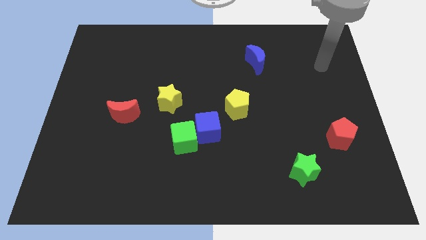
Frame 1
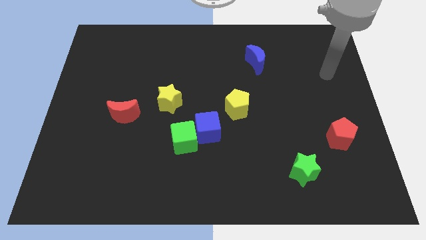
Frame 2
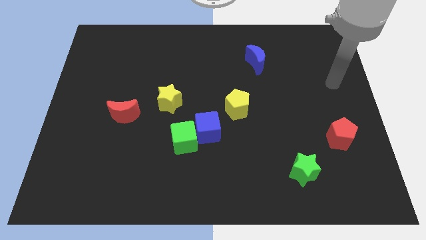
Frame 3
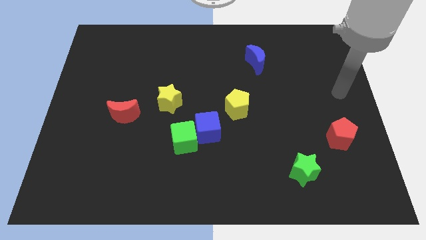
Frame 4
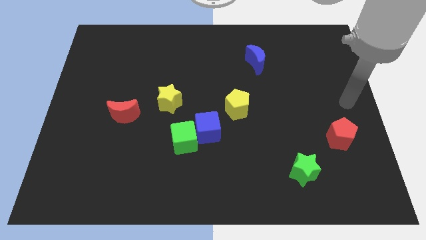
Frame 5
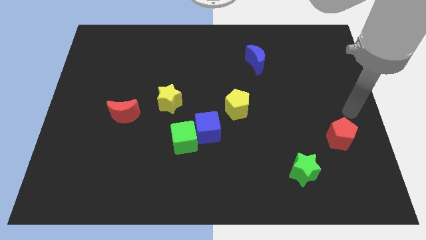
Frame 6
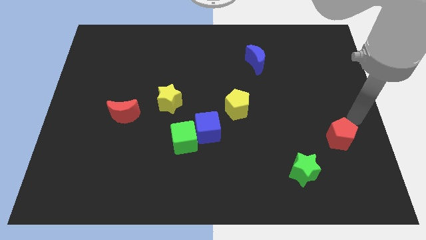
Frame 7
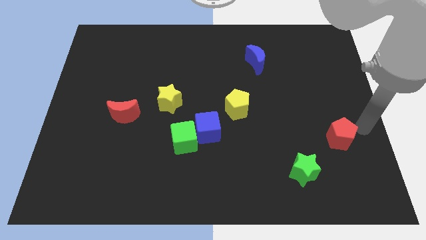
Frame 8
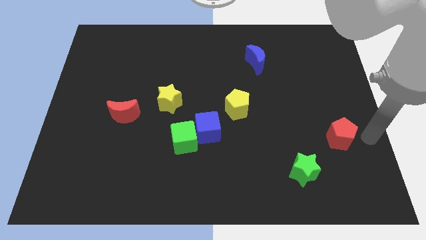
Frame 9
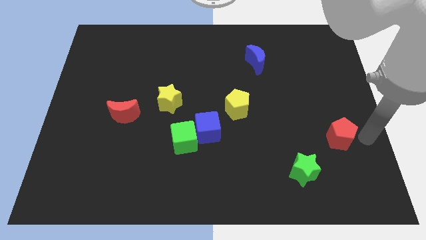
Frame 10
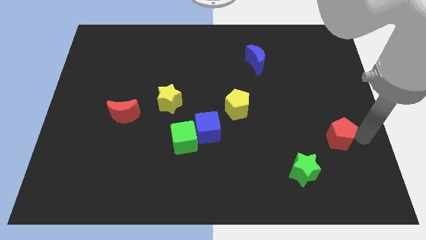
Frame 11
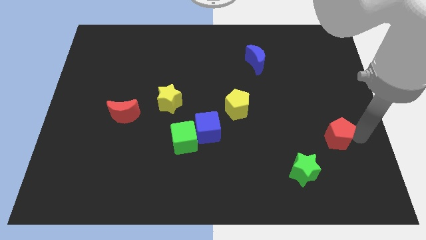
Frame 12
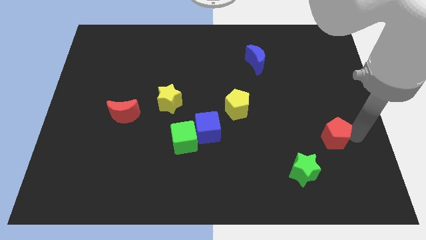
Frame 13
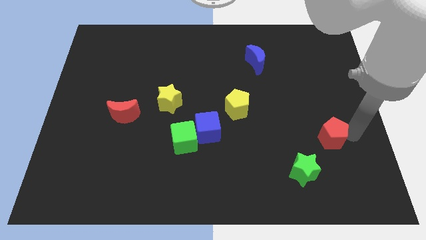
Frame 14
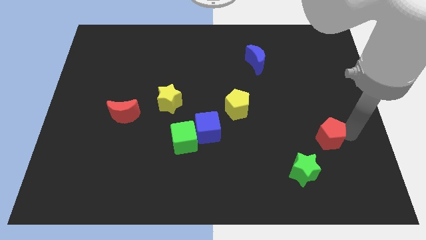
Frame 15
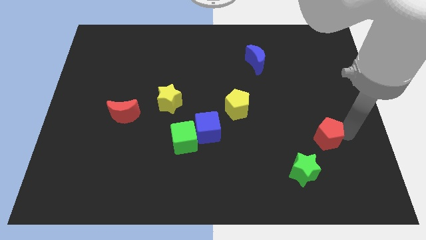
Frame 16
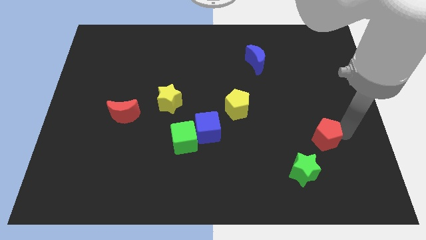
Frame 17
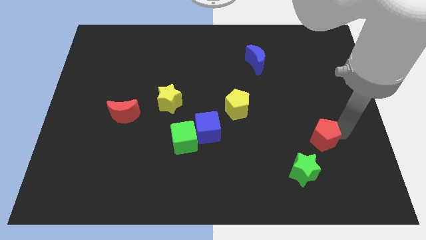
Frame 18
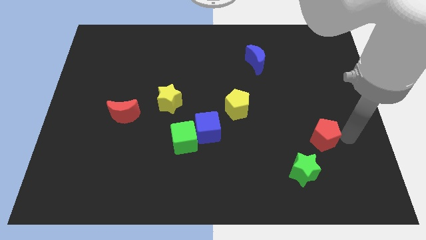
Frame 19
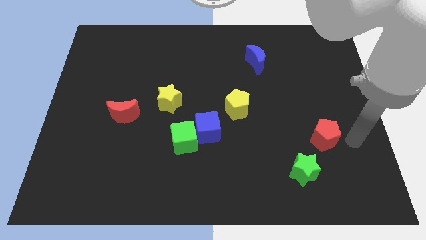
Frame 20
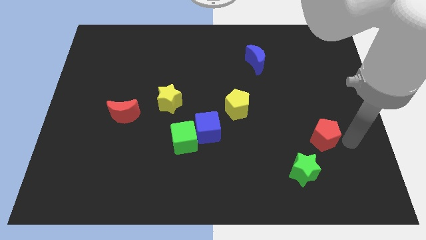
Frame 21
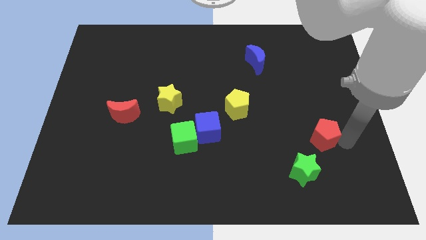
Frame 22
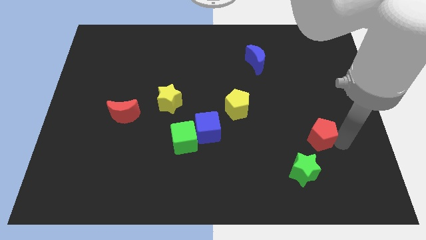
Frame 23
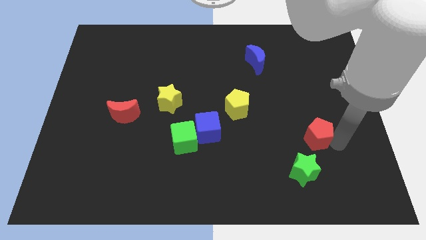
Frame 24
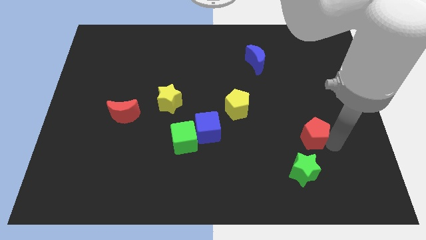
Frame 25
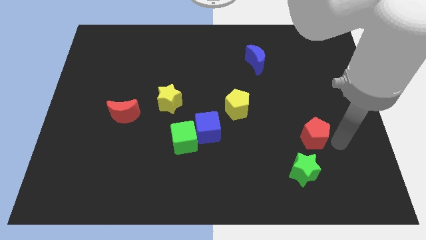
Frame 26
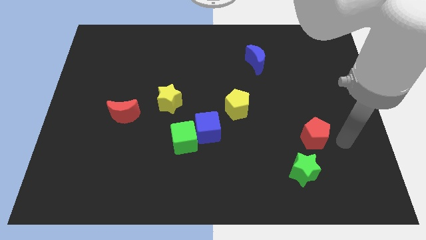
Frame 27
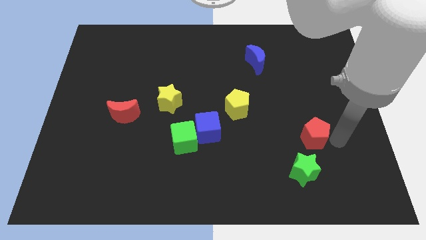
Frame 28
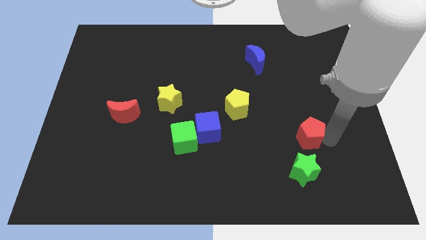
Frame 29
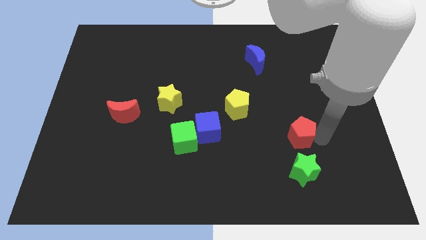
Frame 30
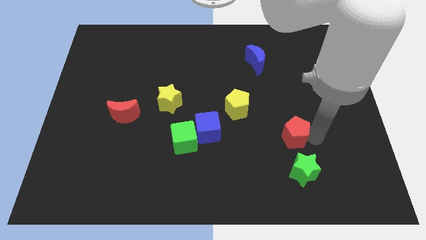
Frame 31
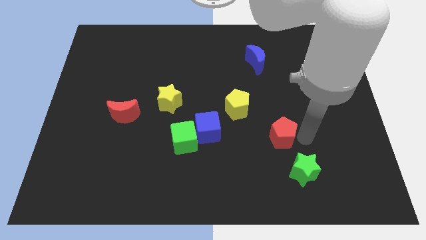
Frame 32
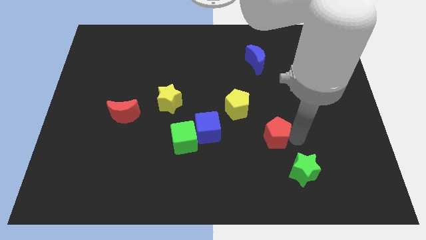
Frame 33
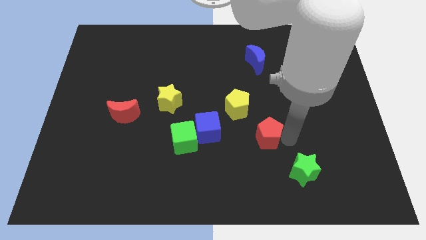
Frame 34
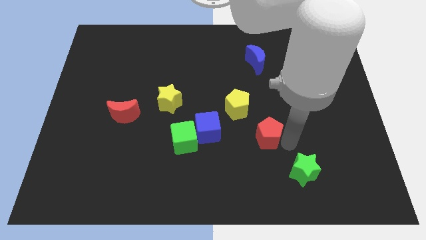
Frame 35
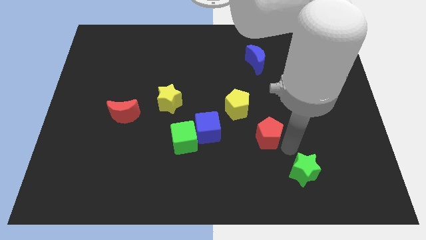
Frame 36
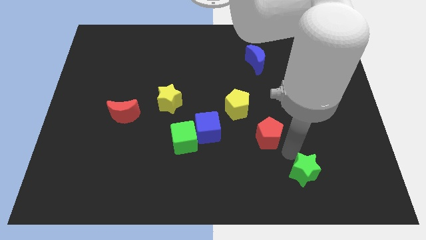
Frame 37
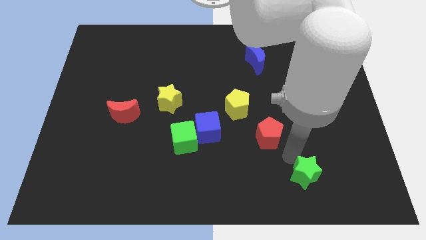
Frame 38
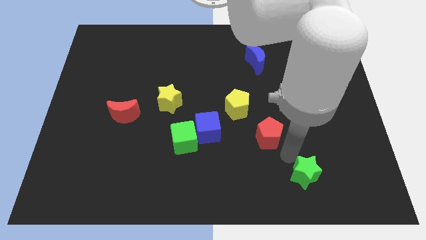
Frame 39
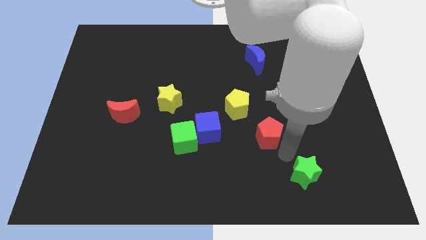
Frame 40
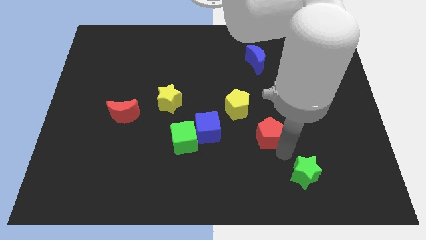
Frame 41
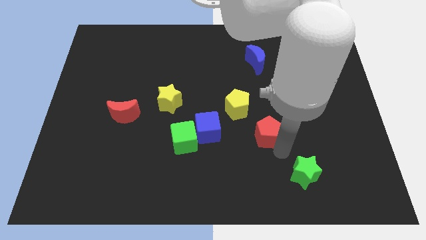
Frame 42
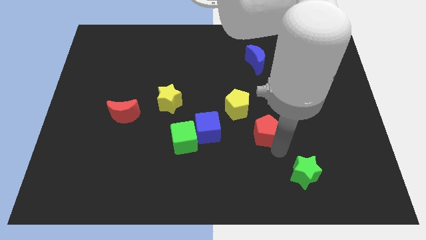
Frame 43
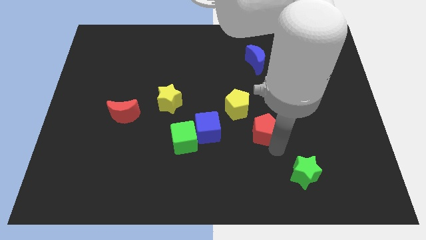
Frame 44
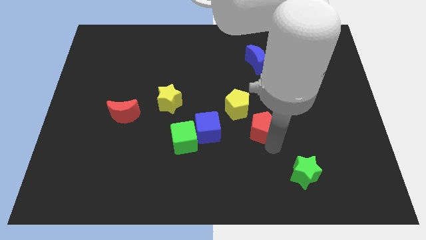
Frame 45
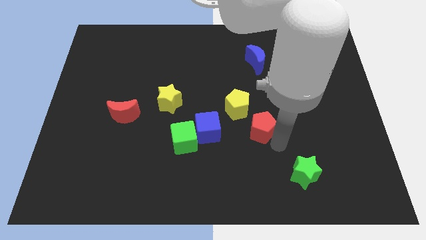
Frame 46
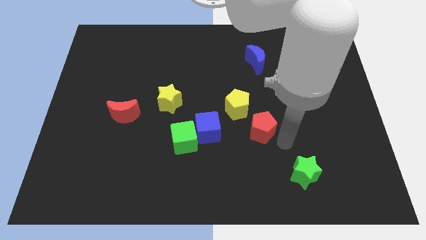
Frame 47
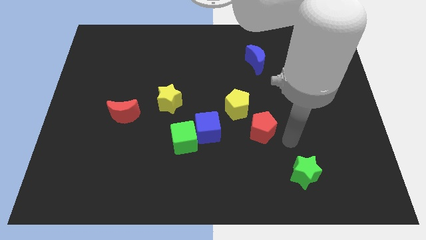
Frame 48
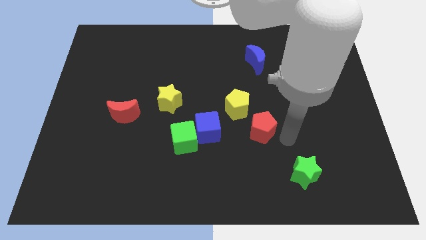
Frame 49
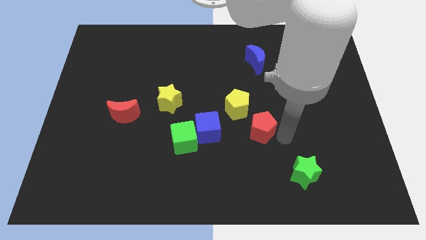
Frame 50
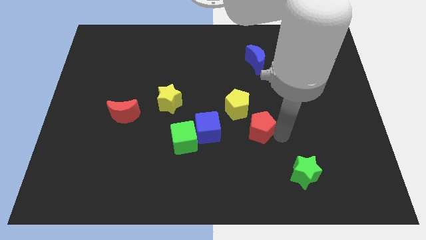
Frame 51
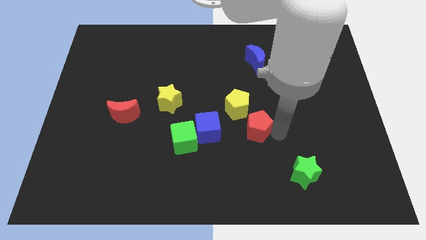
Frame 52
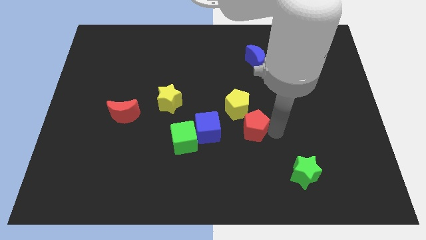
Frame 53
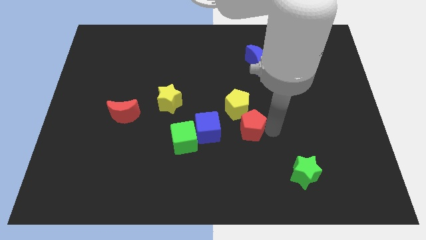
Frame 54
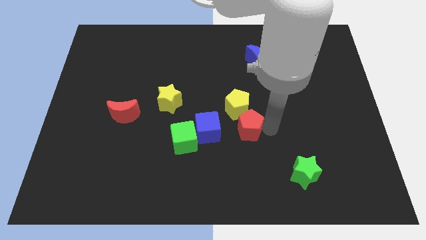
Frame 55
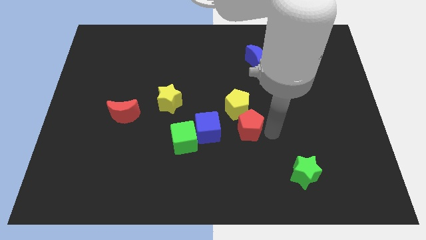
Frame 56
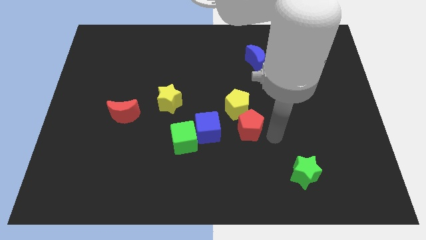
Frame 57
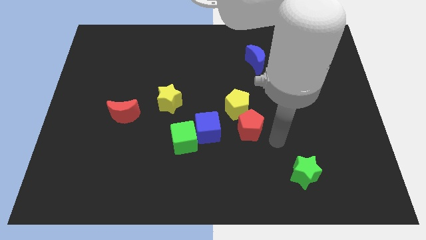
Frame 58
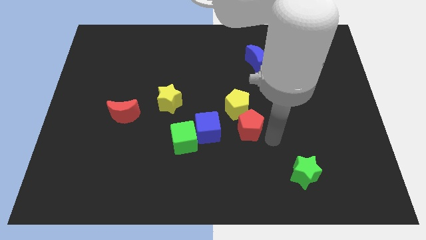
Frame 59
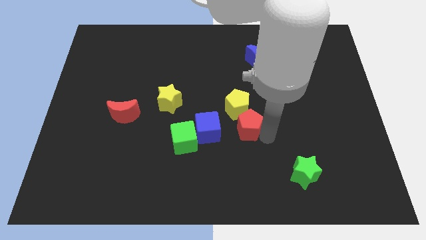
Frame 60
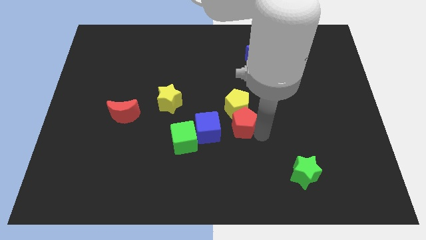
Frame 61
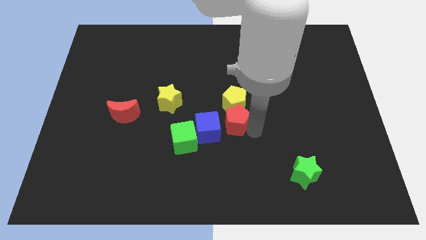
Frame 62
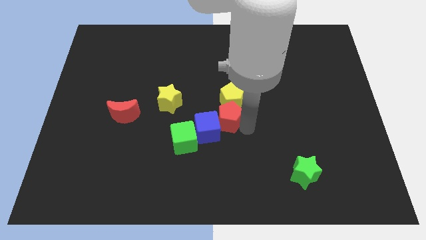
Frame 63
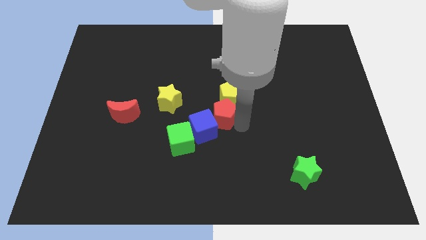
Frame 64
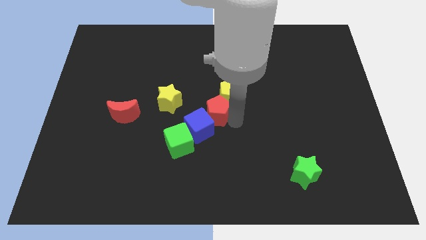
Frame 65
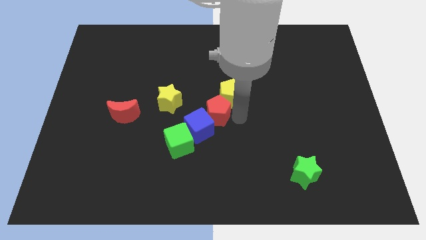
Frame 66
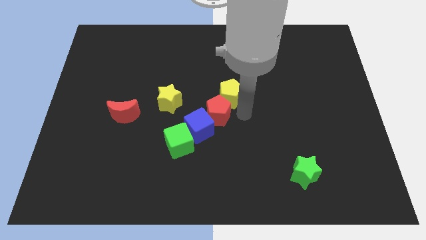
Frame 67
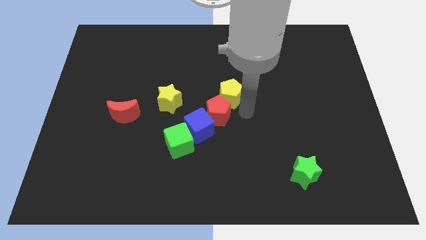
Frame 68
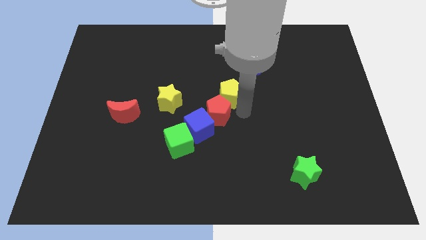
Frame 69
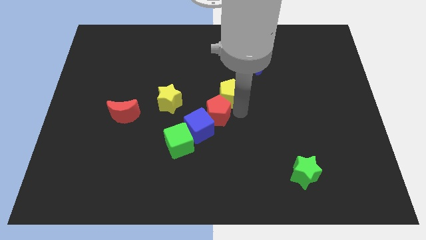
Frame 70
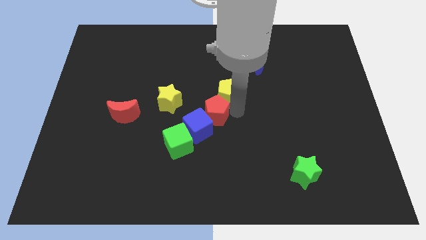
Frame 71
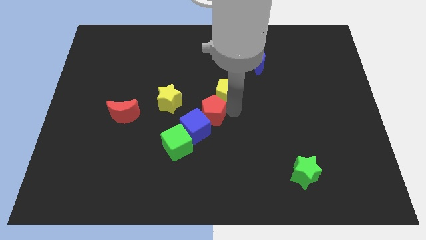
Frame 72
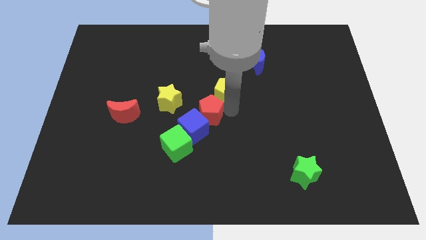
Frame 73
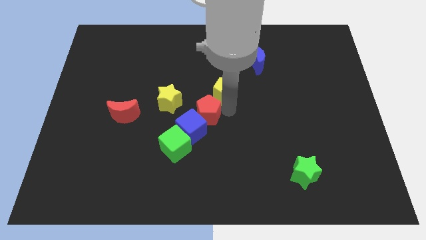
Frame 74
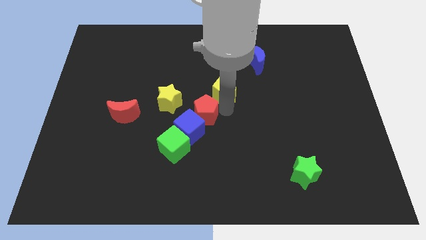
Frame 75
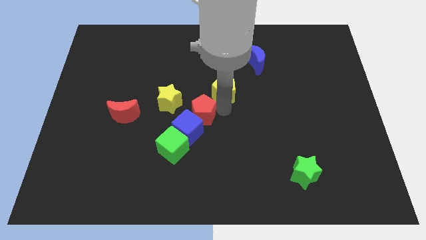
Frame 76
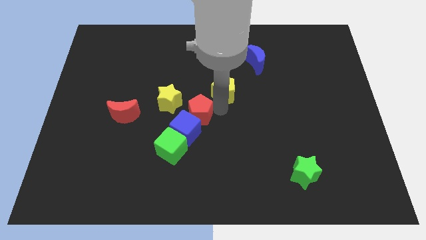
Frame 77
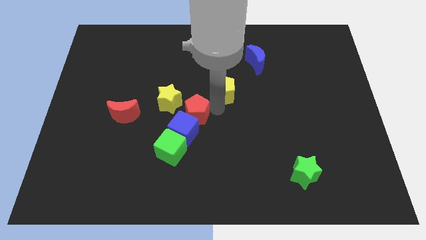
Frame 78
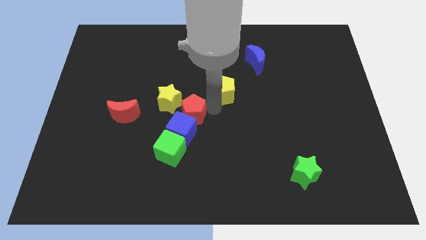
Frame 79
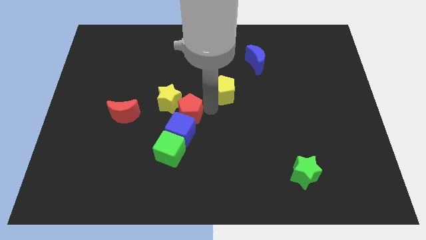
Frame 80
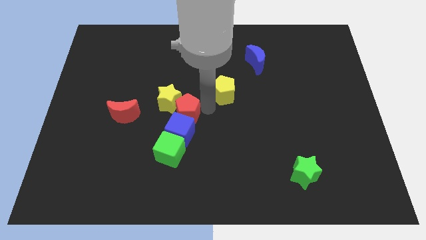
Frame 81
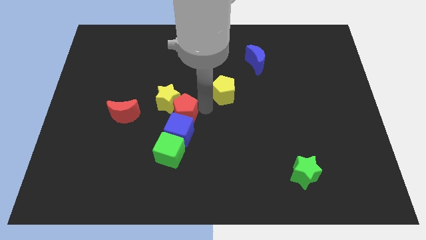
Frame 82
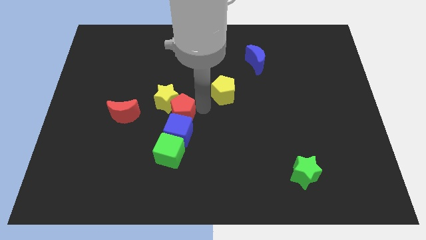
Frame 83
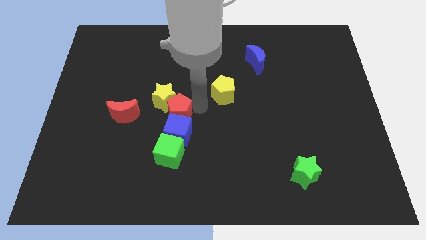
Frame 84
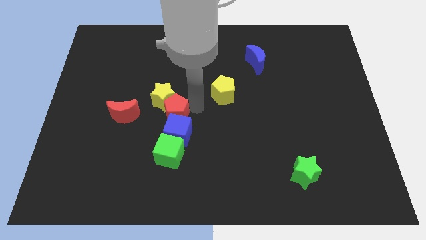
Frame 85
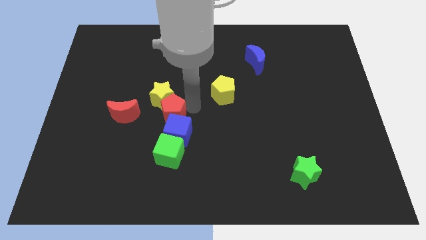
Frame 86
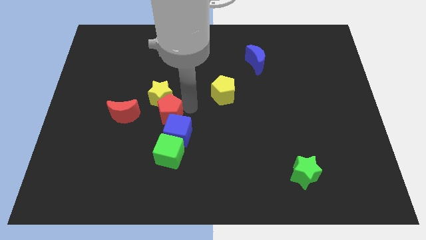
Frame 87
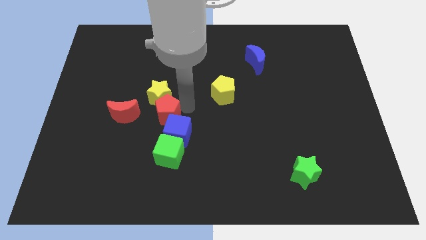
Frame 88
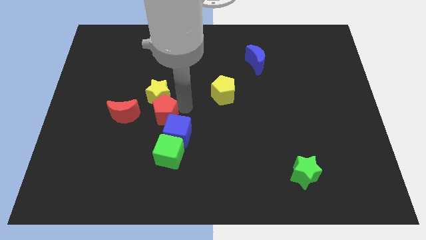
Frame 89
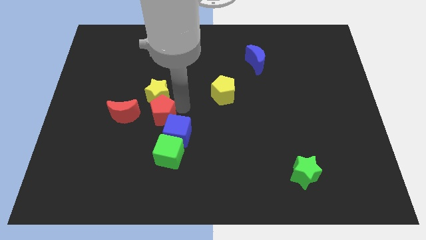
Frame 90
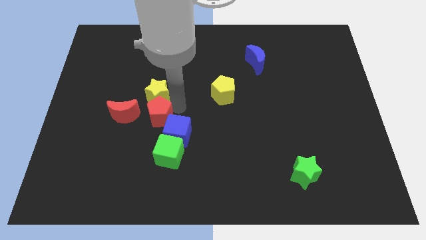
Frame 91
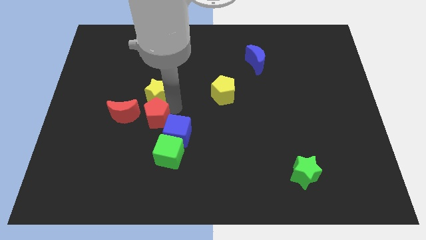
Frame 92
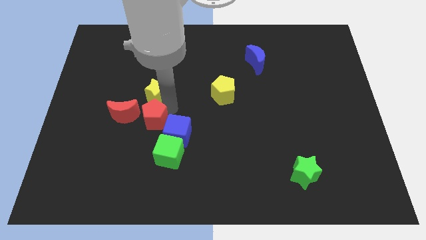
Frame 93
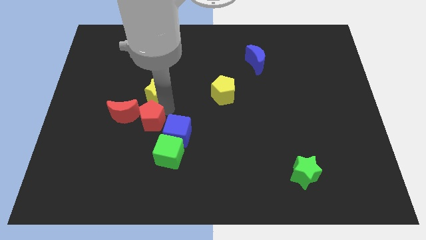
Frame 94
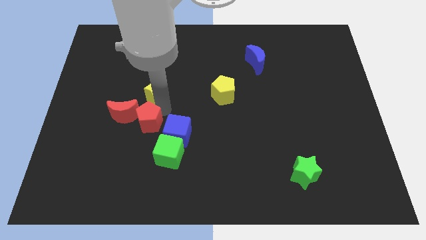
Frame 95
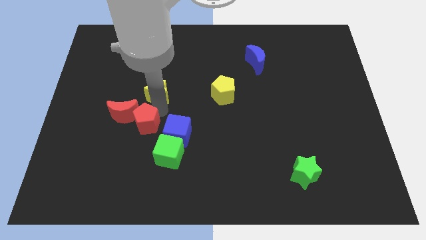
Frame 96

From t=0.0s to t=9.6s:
put the red pentagon next to the red moon
